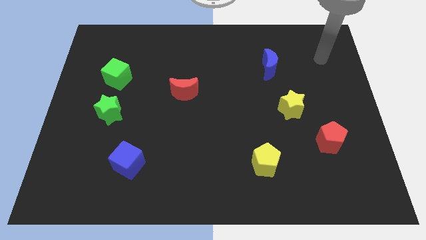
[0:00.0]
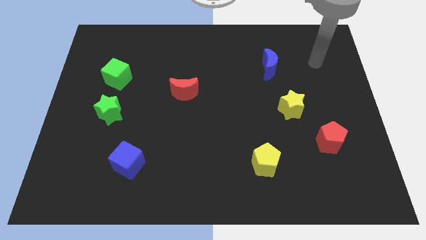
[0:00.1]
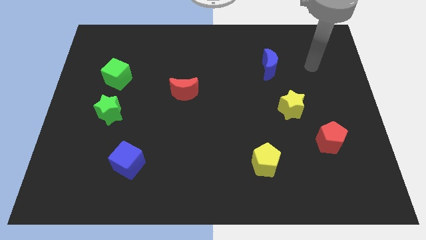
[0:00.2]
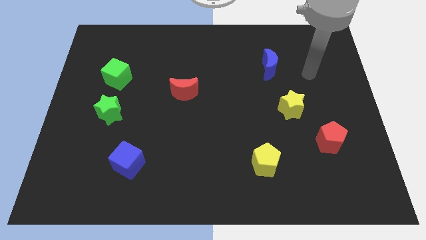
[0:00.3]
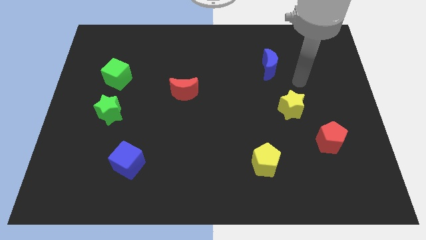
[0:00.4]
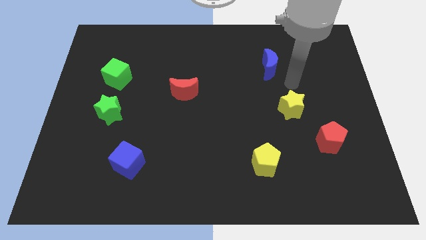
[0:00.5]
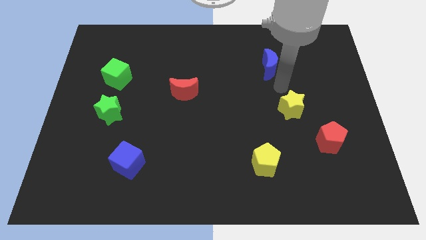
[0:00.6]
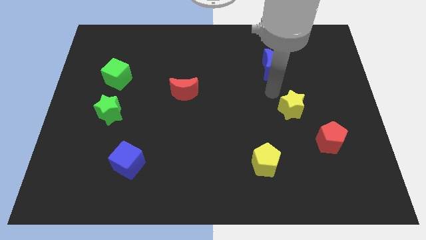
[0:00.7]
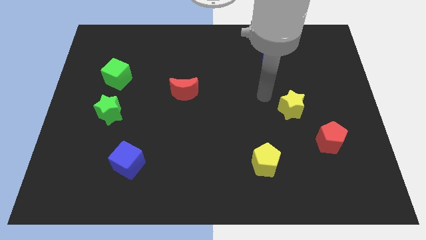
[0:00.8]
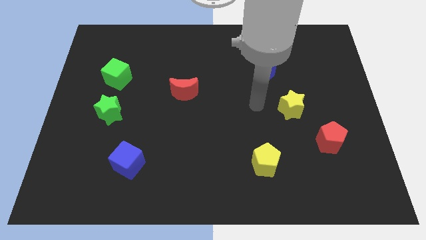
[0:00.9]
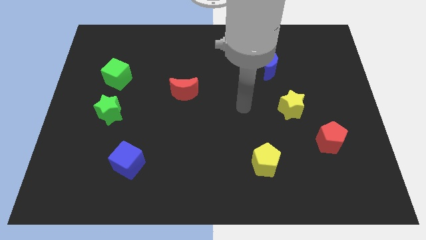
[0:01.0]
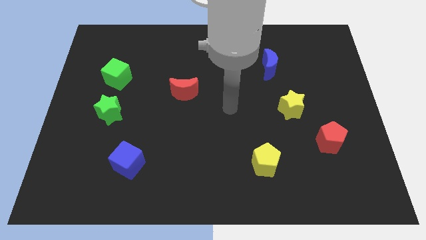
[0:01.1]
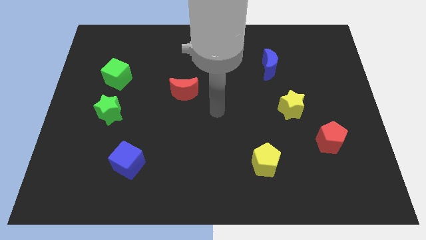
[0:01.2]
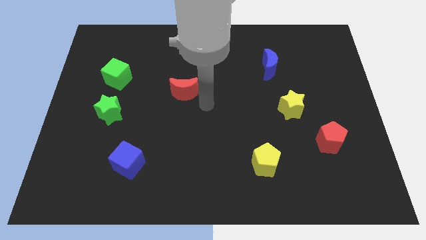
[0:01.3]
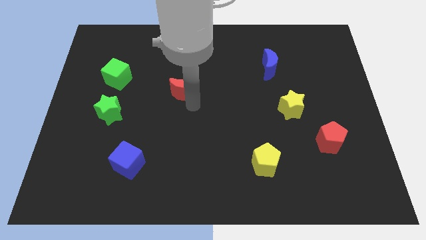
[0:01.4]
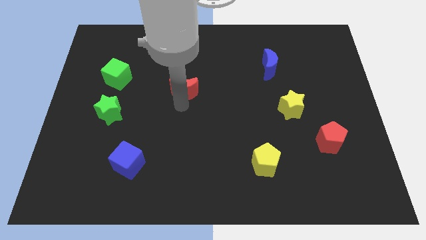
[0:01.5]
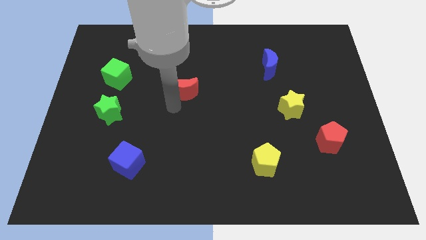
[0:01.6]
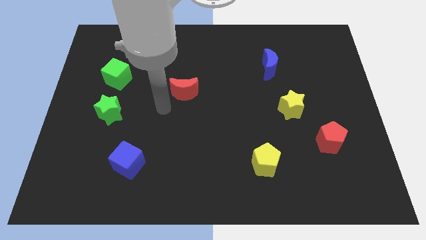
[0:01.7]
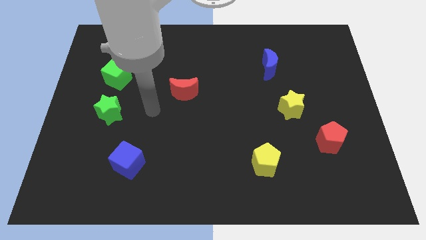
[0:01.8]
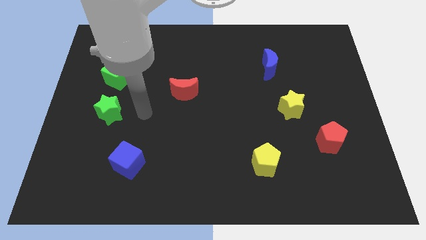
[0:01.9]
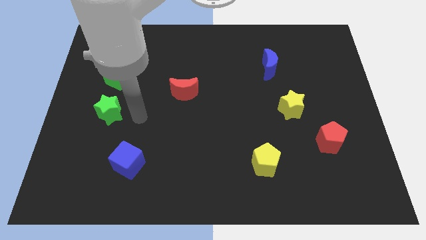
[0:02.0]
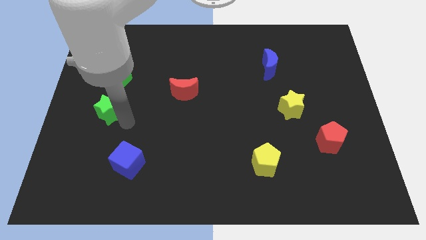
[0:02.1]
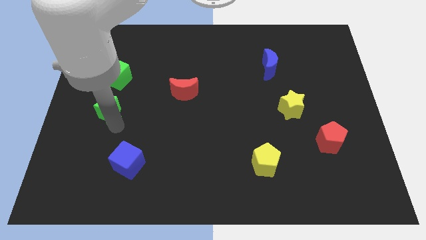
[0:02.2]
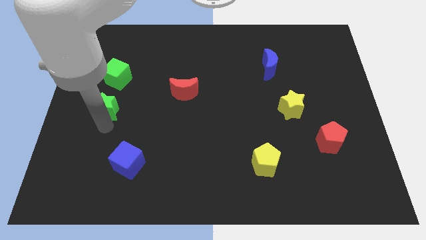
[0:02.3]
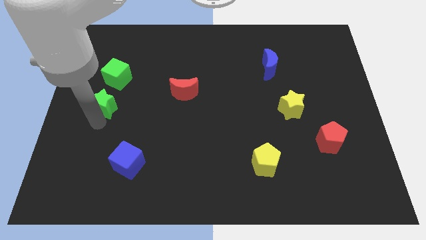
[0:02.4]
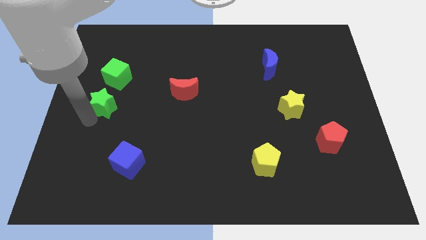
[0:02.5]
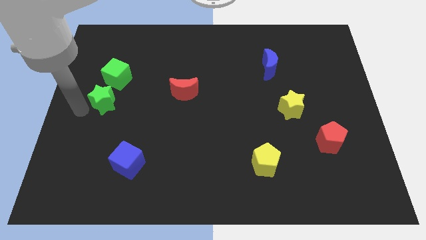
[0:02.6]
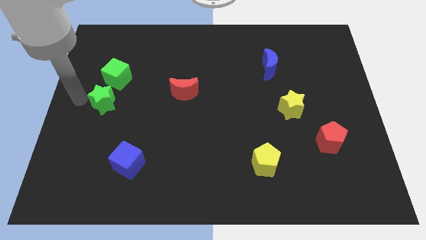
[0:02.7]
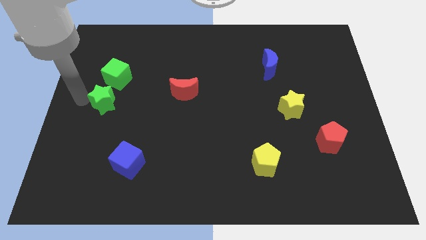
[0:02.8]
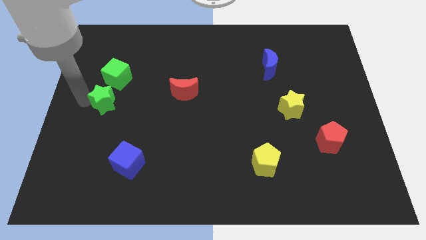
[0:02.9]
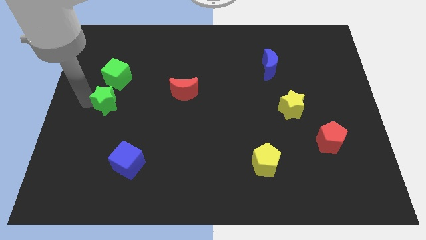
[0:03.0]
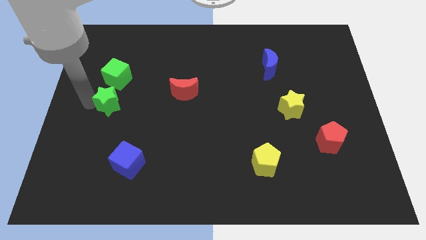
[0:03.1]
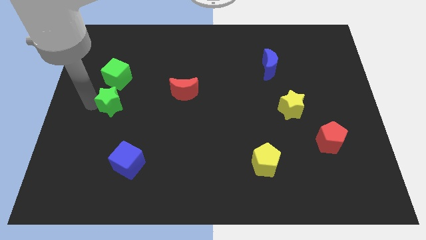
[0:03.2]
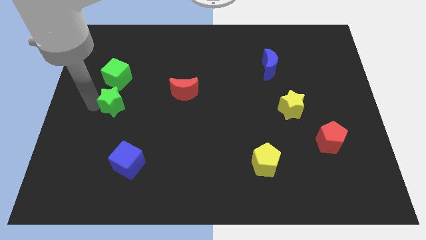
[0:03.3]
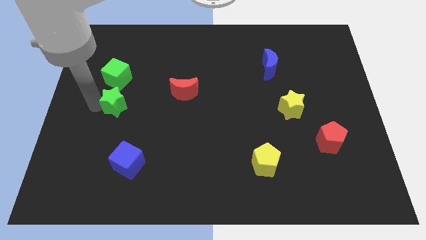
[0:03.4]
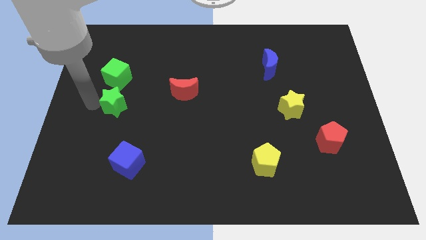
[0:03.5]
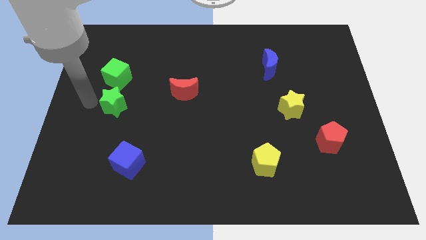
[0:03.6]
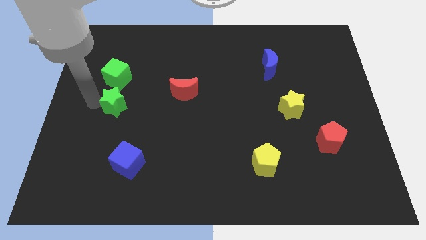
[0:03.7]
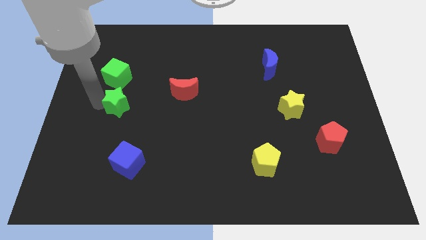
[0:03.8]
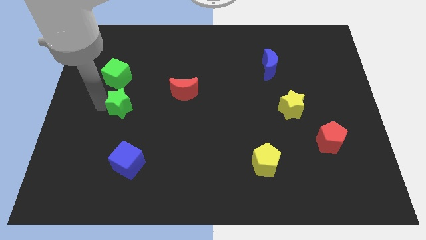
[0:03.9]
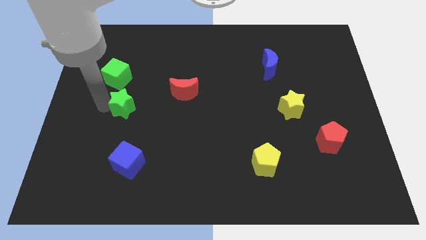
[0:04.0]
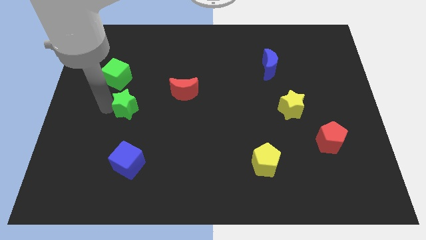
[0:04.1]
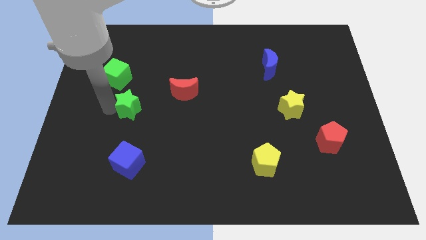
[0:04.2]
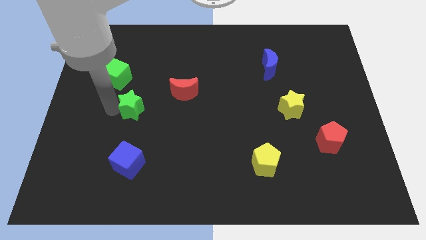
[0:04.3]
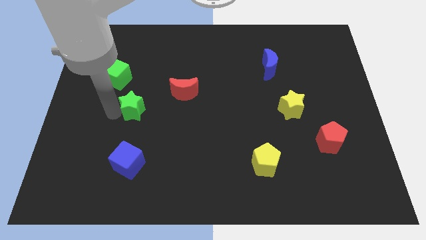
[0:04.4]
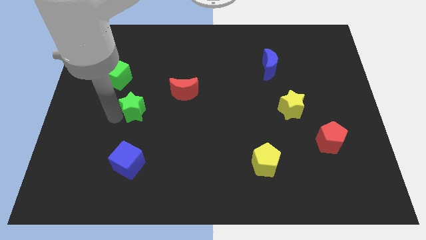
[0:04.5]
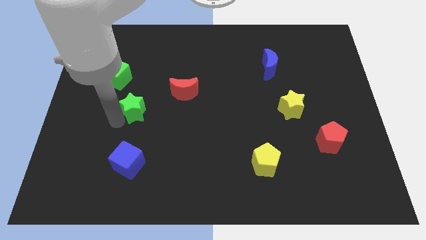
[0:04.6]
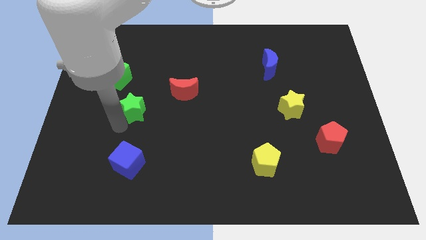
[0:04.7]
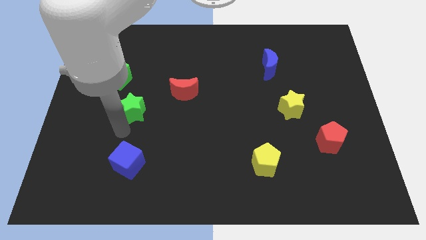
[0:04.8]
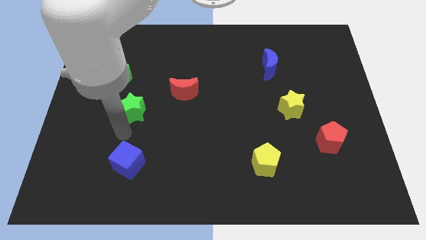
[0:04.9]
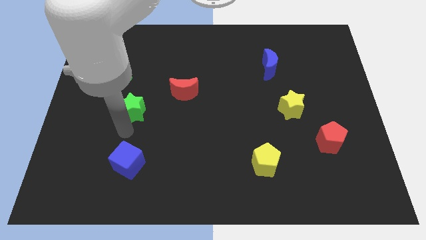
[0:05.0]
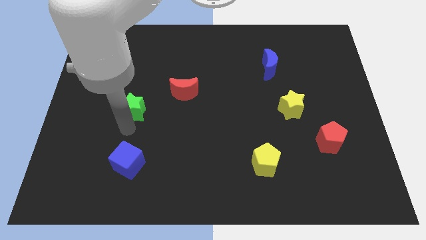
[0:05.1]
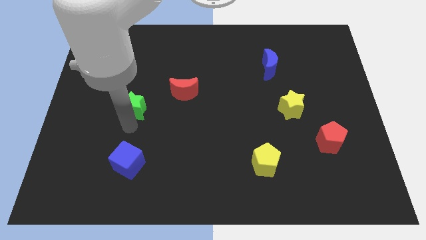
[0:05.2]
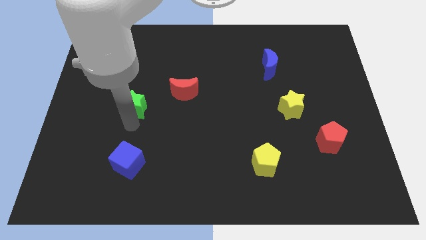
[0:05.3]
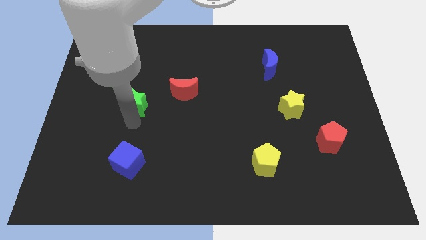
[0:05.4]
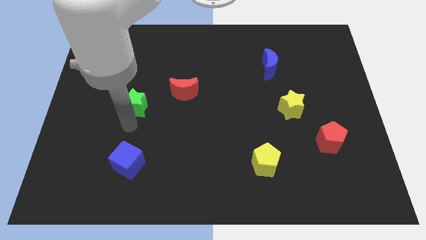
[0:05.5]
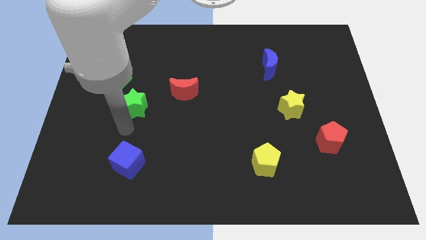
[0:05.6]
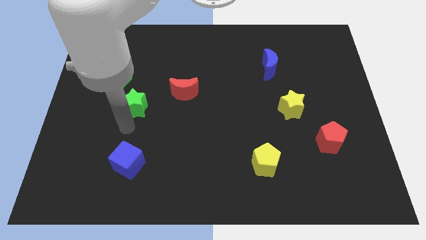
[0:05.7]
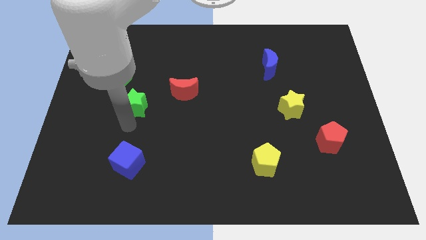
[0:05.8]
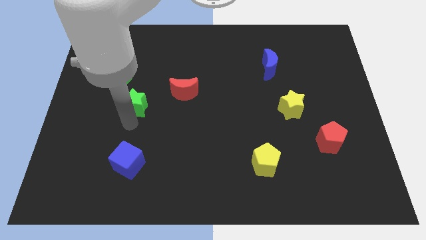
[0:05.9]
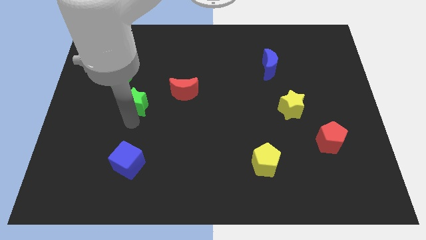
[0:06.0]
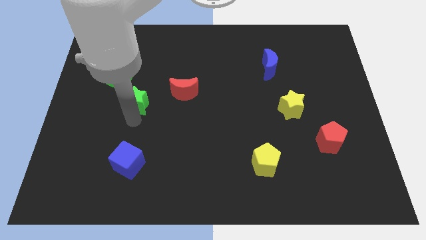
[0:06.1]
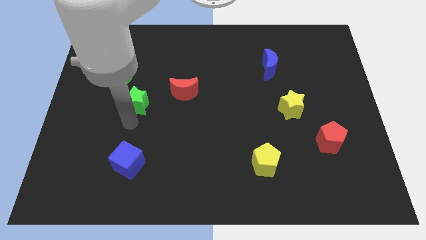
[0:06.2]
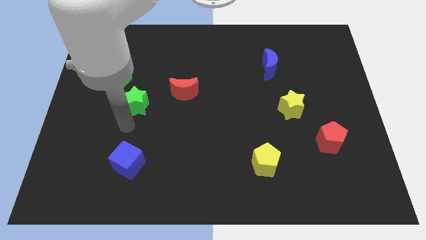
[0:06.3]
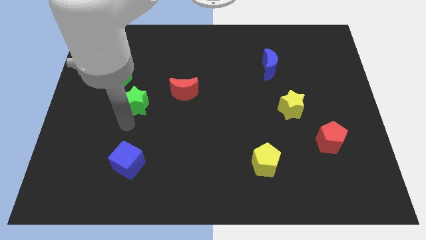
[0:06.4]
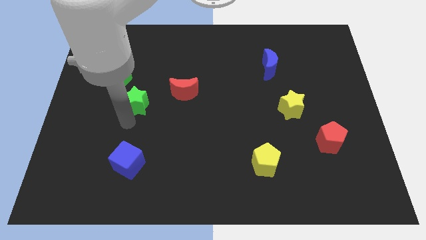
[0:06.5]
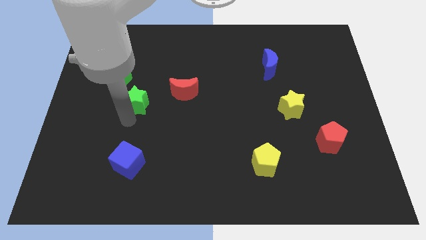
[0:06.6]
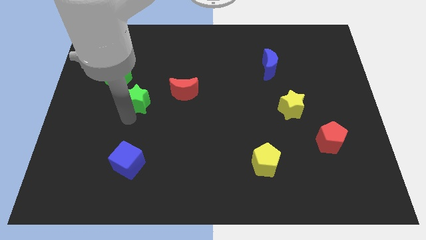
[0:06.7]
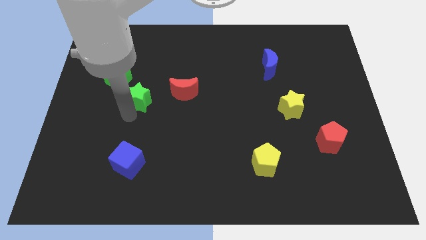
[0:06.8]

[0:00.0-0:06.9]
move the green star slightly up and then to the right

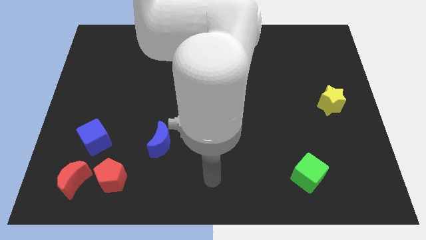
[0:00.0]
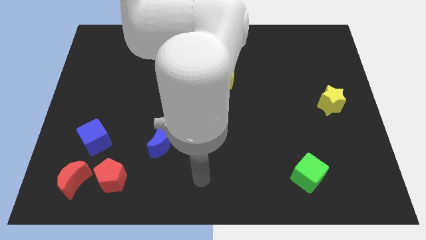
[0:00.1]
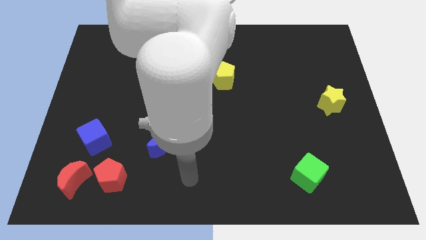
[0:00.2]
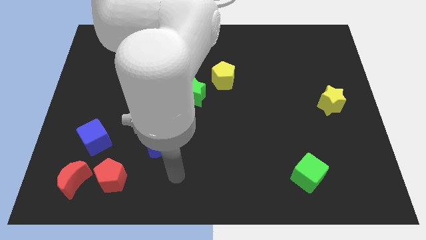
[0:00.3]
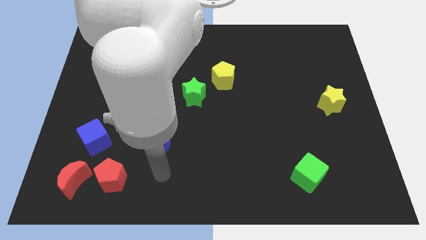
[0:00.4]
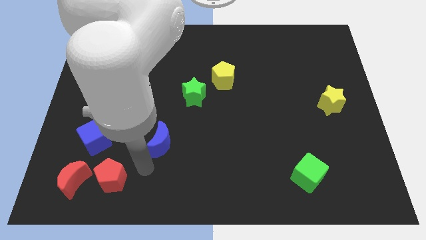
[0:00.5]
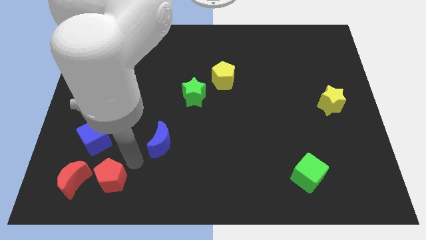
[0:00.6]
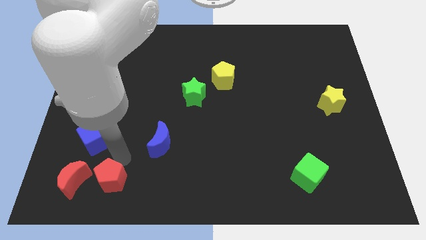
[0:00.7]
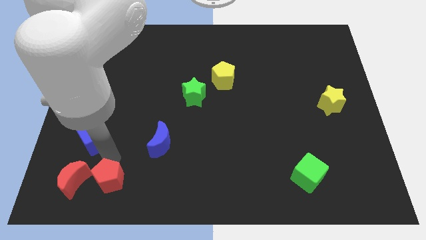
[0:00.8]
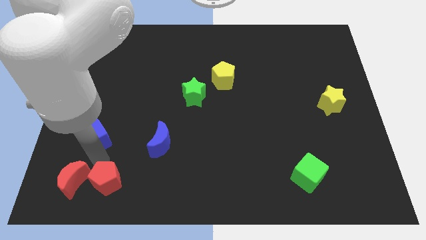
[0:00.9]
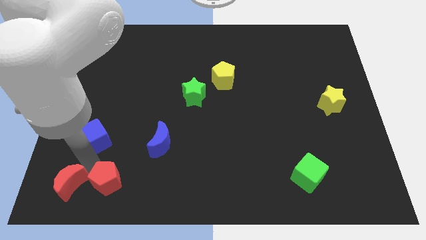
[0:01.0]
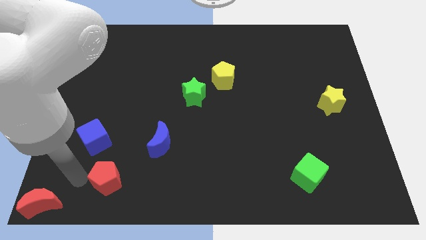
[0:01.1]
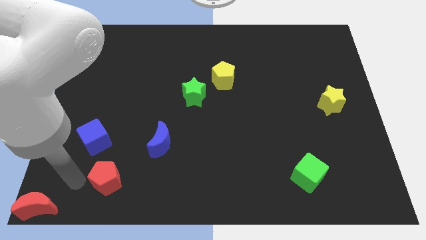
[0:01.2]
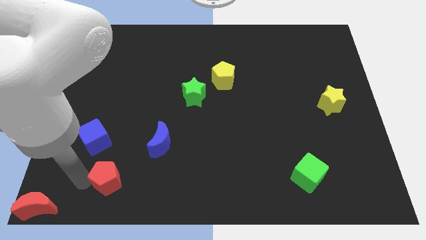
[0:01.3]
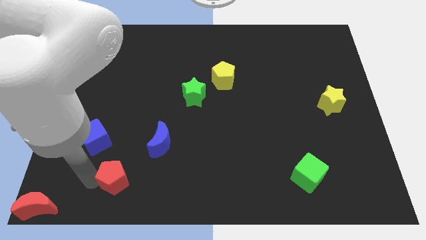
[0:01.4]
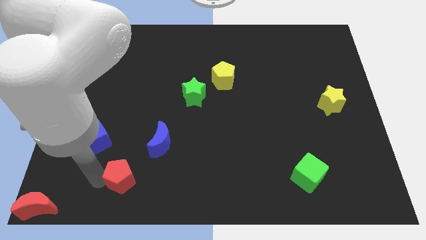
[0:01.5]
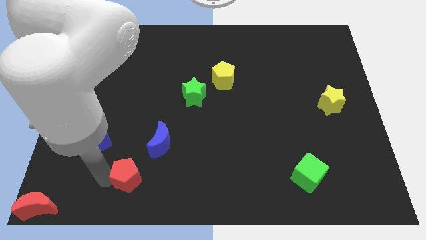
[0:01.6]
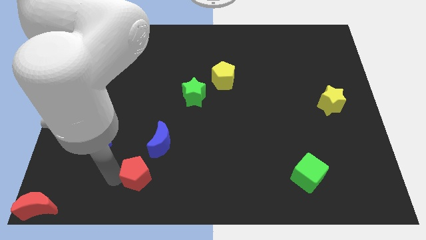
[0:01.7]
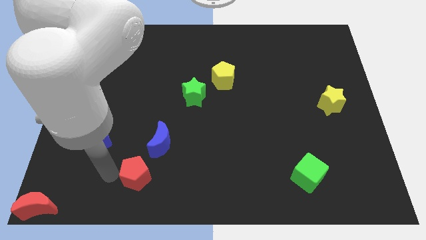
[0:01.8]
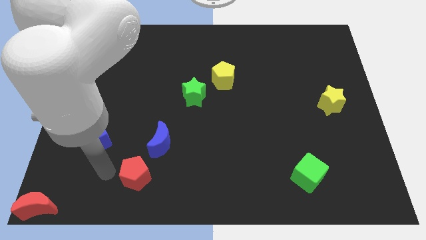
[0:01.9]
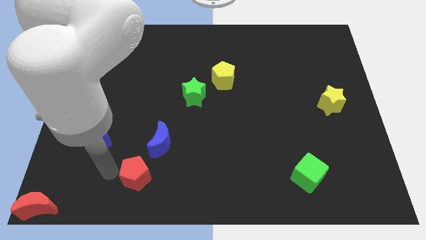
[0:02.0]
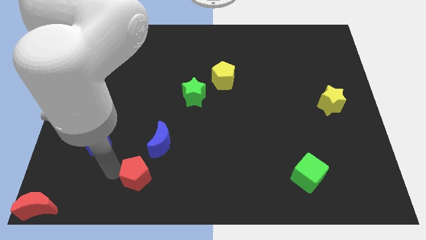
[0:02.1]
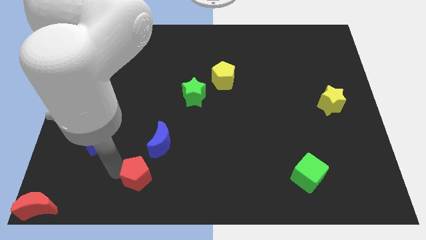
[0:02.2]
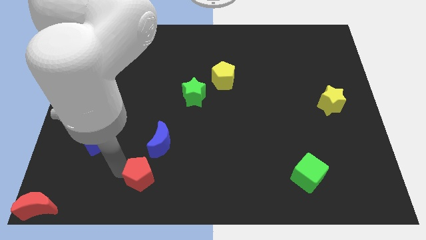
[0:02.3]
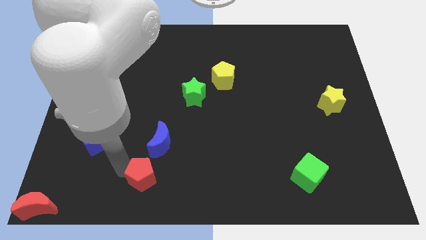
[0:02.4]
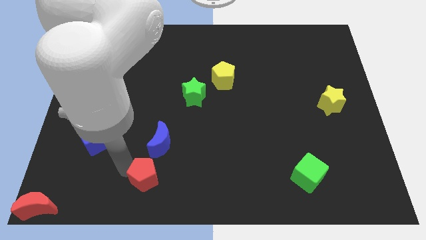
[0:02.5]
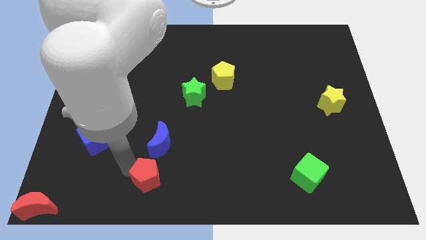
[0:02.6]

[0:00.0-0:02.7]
slide the red pentagon right a bit
